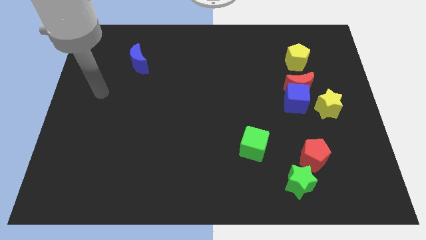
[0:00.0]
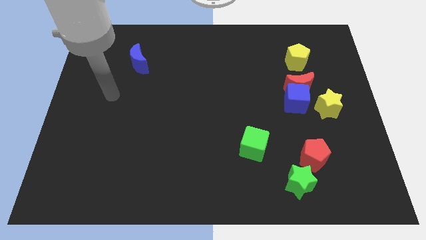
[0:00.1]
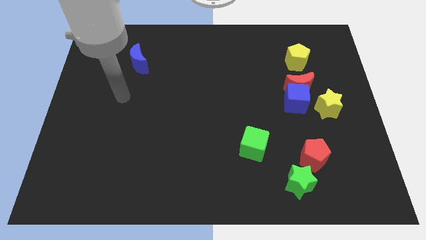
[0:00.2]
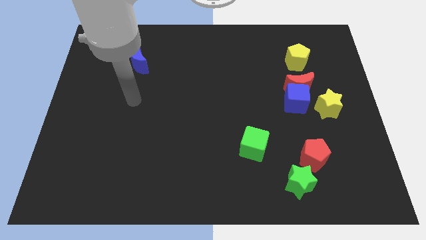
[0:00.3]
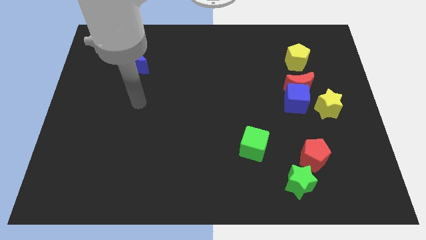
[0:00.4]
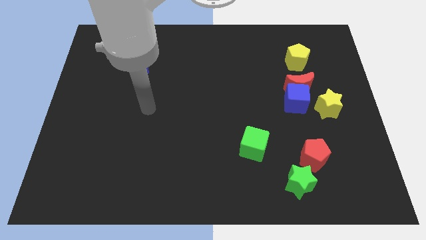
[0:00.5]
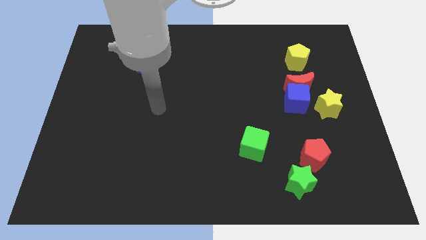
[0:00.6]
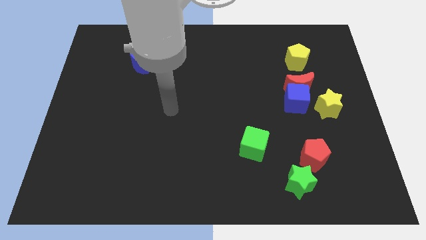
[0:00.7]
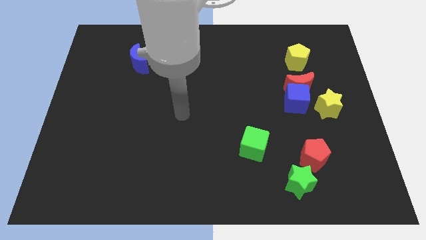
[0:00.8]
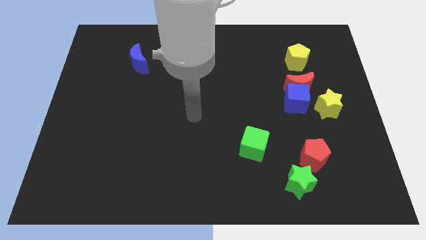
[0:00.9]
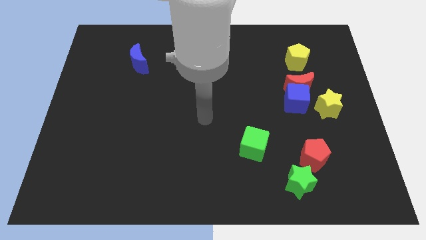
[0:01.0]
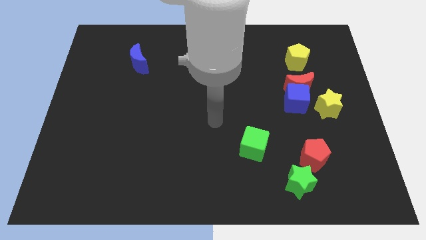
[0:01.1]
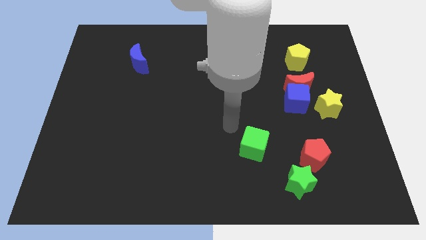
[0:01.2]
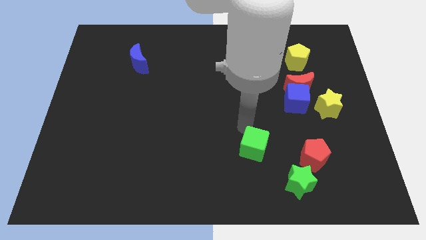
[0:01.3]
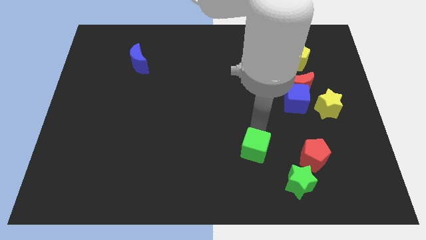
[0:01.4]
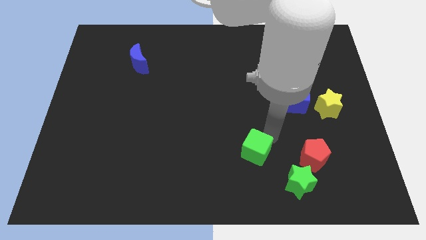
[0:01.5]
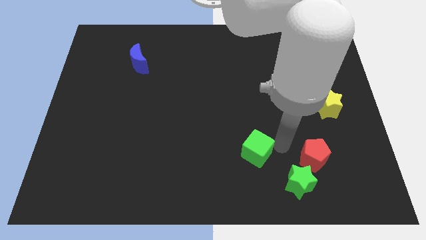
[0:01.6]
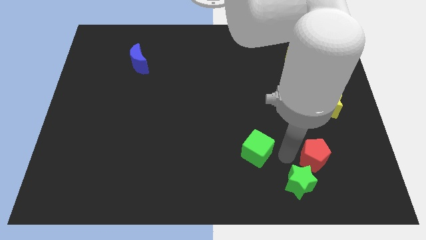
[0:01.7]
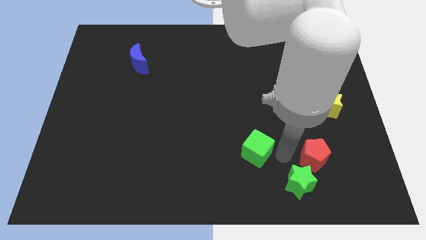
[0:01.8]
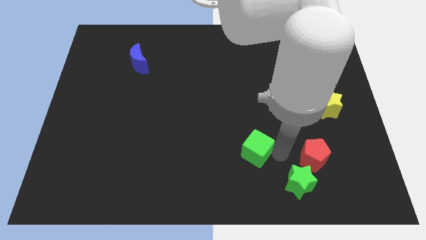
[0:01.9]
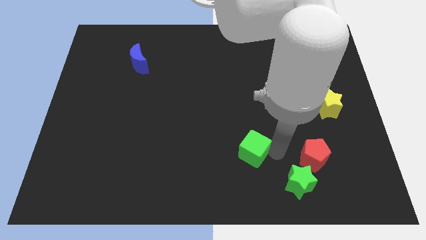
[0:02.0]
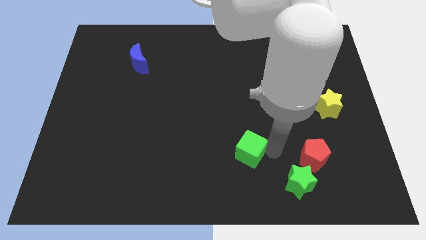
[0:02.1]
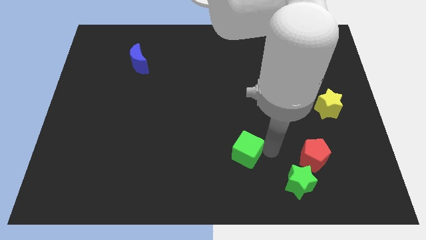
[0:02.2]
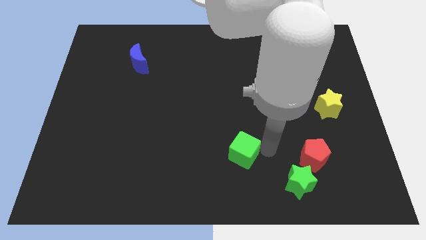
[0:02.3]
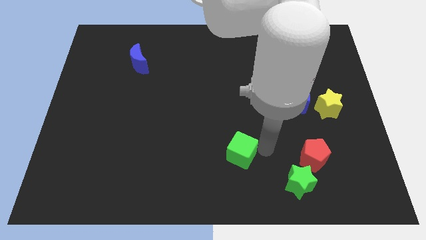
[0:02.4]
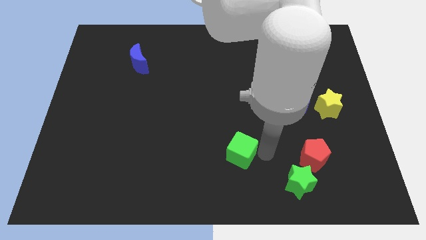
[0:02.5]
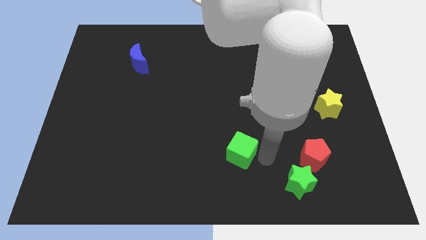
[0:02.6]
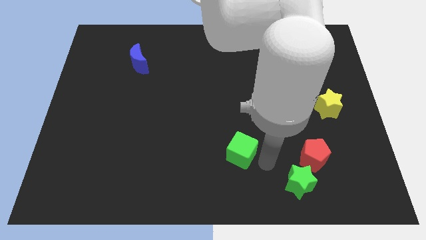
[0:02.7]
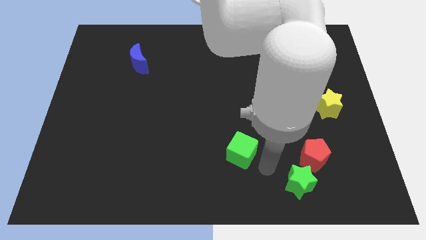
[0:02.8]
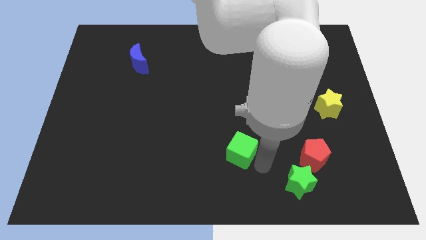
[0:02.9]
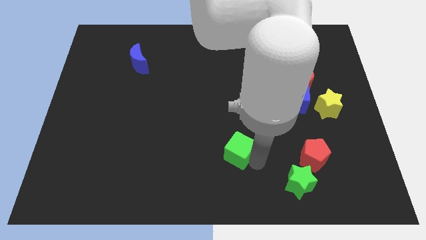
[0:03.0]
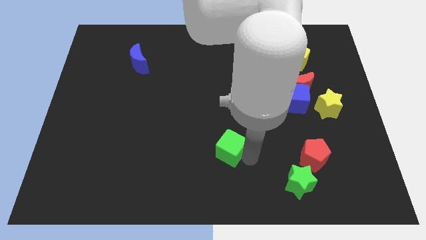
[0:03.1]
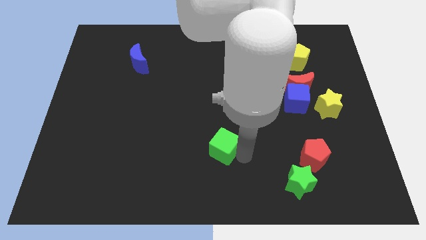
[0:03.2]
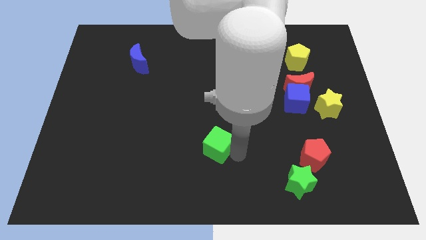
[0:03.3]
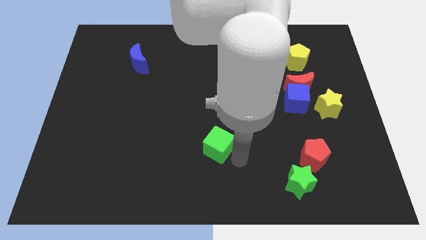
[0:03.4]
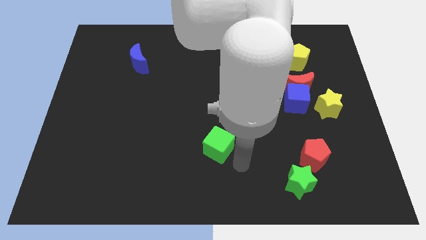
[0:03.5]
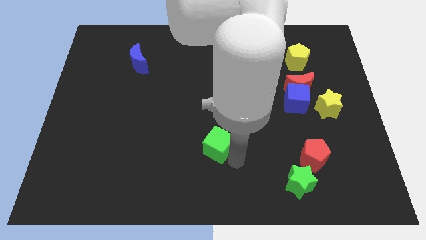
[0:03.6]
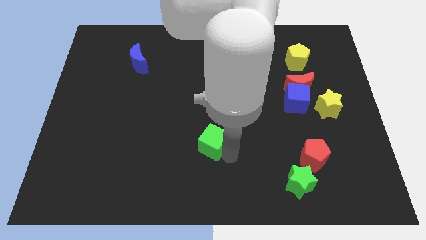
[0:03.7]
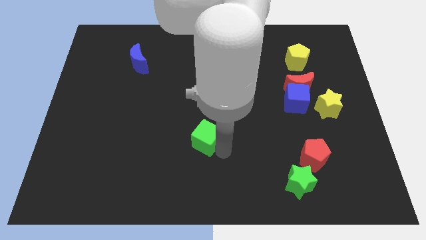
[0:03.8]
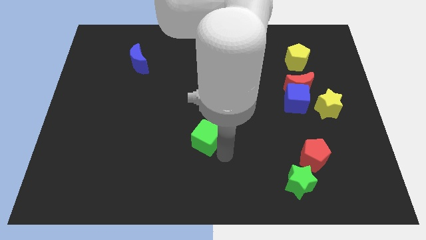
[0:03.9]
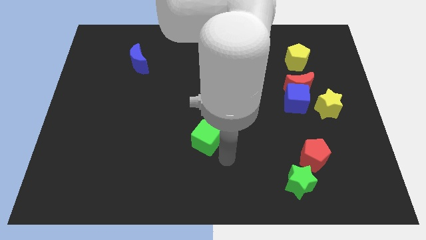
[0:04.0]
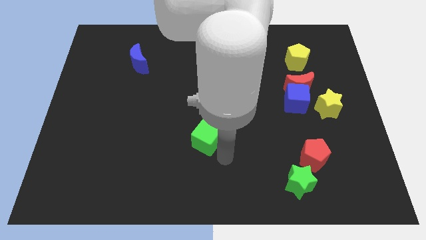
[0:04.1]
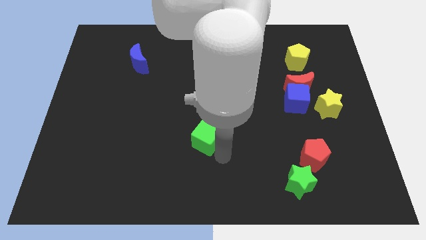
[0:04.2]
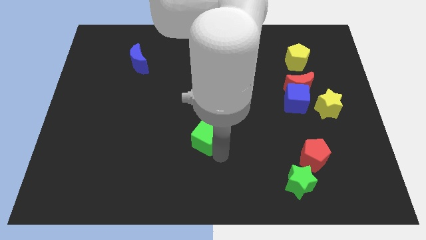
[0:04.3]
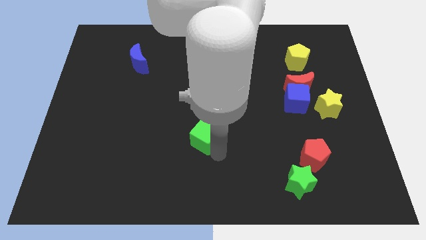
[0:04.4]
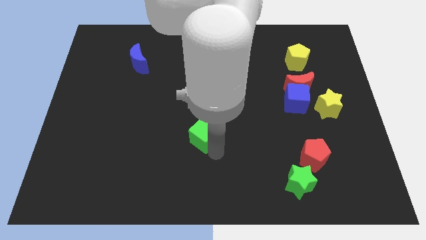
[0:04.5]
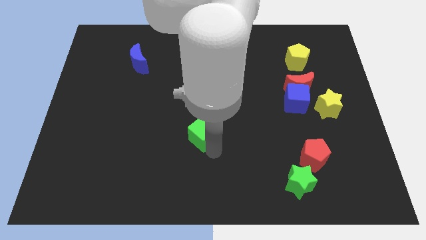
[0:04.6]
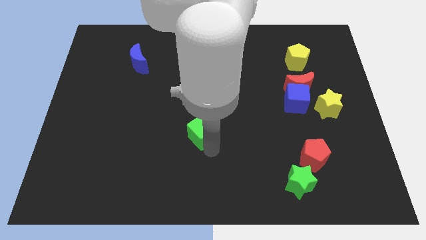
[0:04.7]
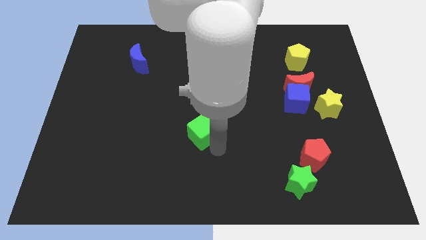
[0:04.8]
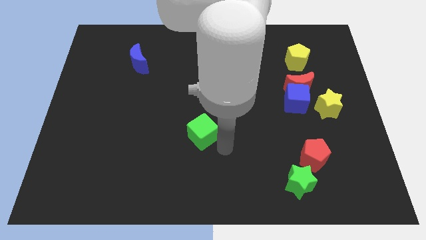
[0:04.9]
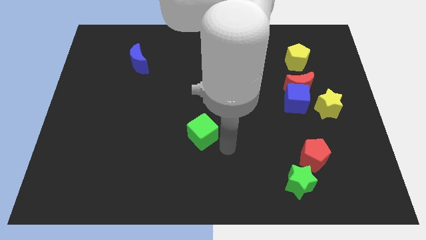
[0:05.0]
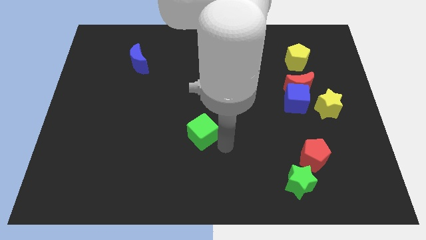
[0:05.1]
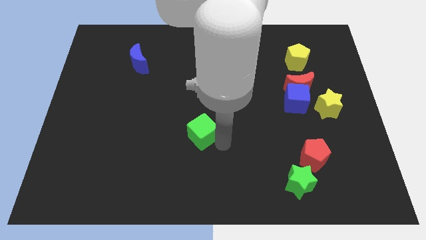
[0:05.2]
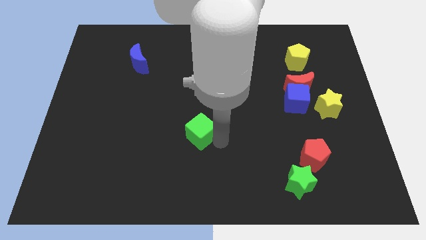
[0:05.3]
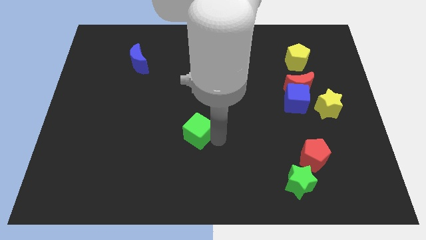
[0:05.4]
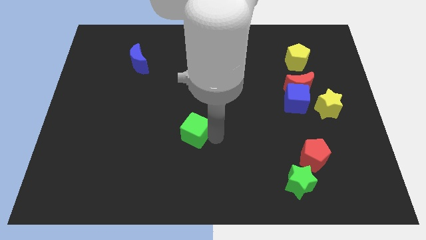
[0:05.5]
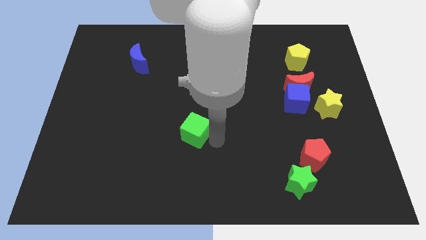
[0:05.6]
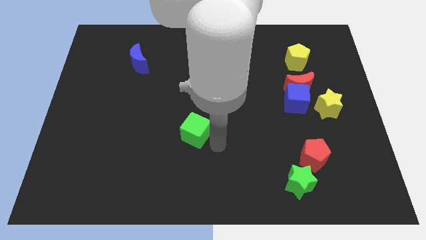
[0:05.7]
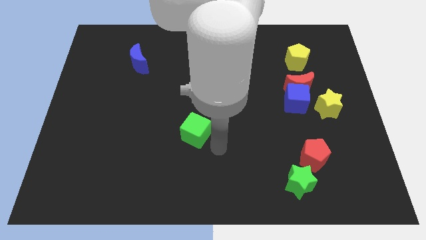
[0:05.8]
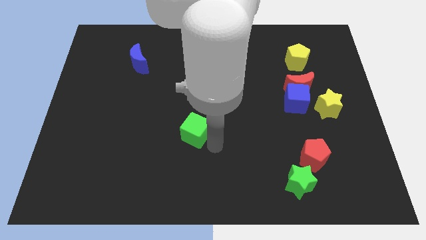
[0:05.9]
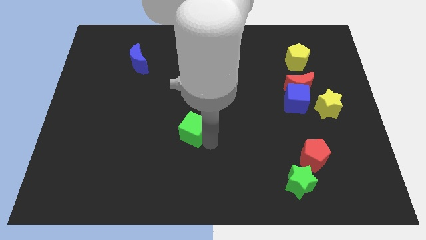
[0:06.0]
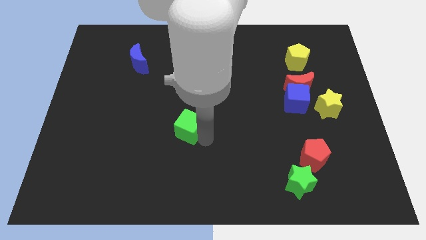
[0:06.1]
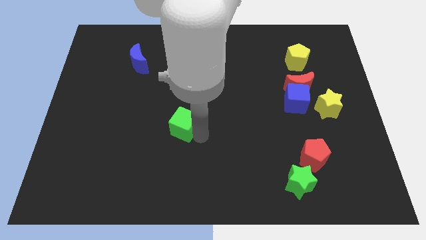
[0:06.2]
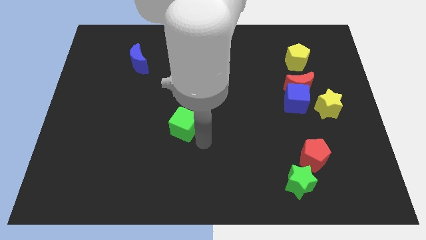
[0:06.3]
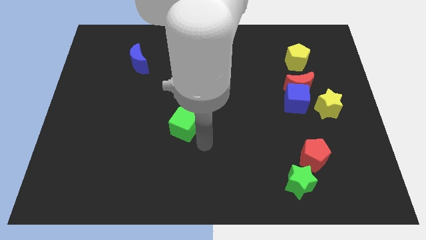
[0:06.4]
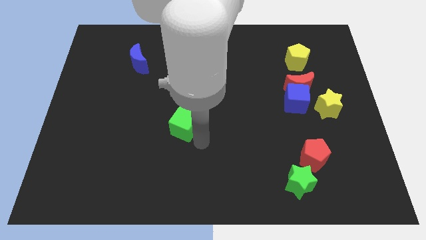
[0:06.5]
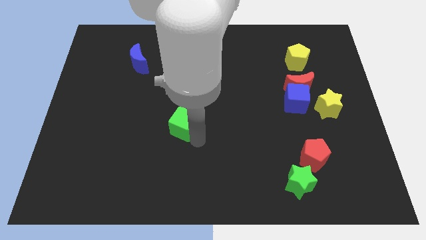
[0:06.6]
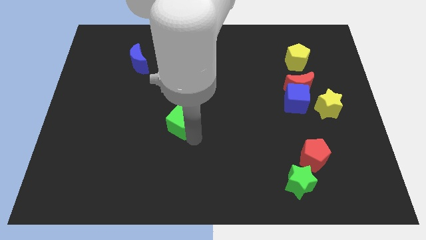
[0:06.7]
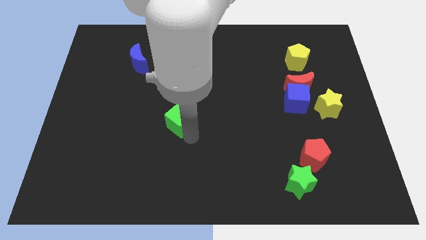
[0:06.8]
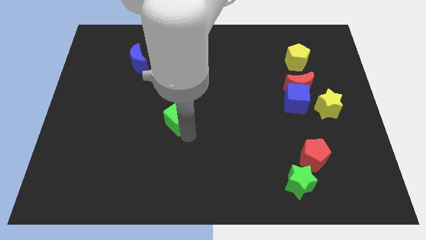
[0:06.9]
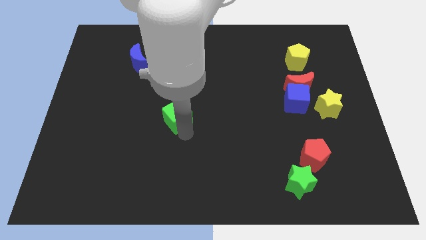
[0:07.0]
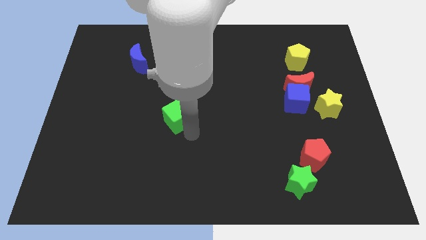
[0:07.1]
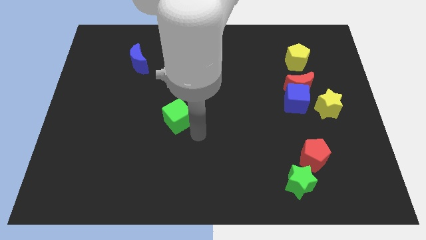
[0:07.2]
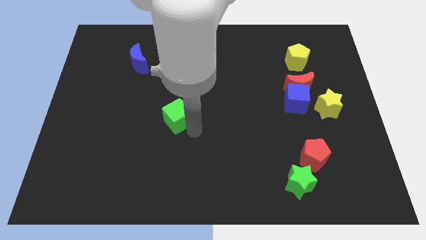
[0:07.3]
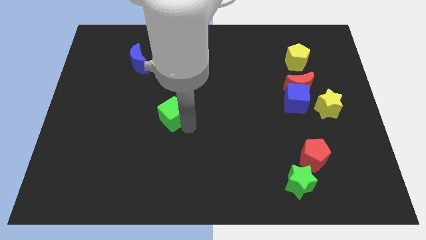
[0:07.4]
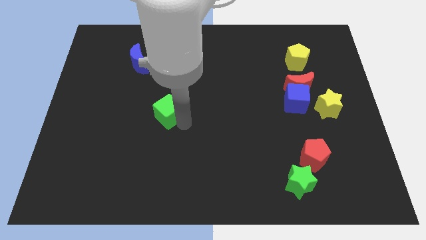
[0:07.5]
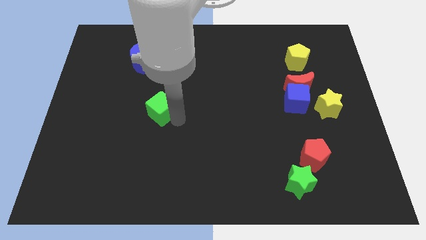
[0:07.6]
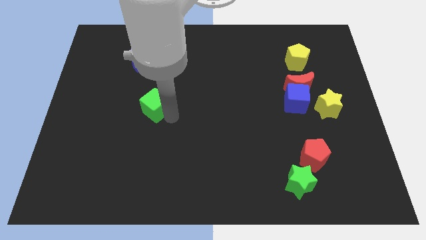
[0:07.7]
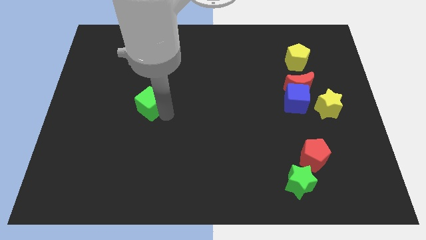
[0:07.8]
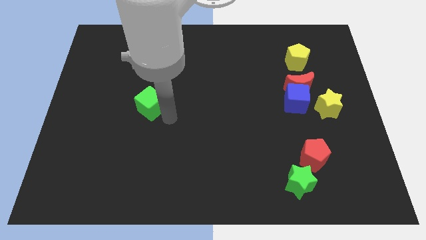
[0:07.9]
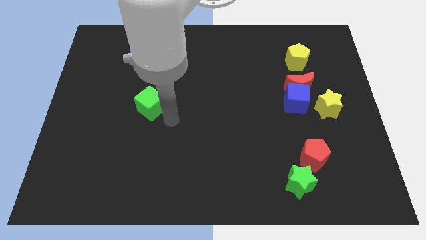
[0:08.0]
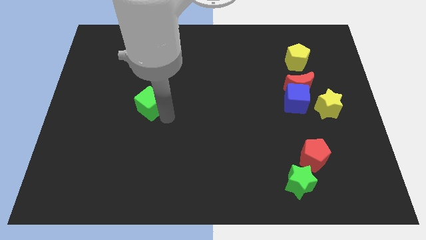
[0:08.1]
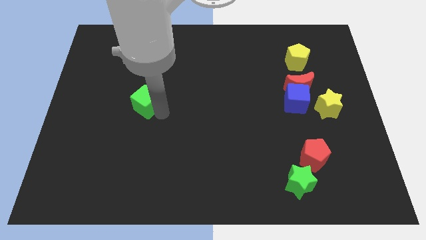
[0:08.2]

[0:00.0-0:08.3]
slide the green cube below the blue moon
